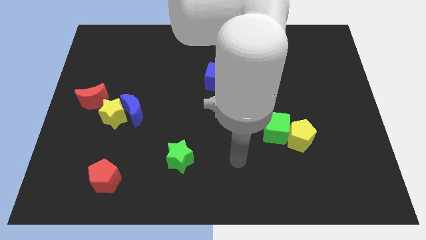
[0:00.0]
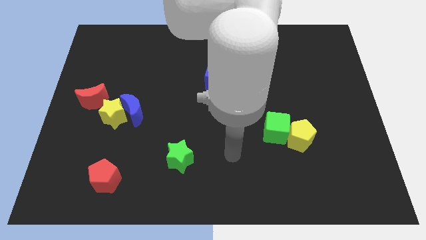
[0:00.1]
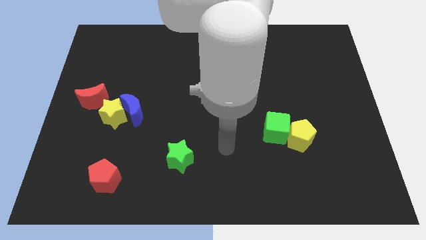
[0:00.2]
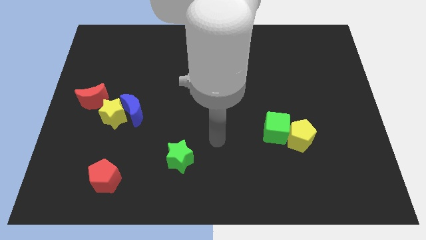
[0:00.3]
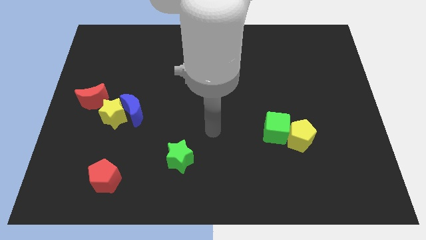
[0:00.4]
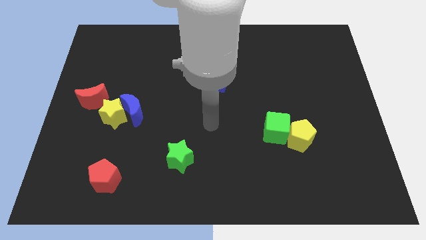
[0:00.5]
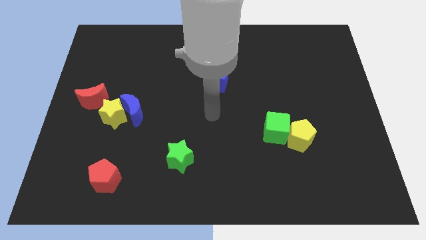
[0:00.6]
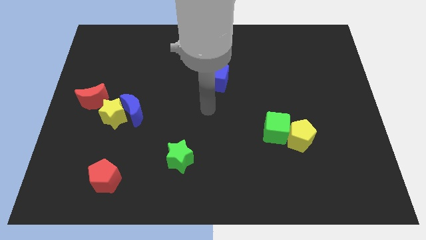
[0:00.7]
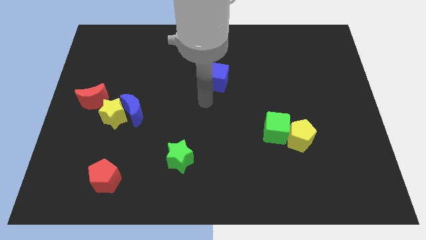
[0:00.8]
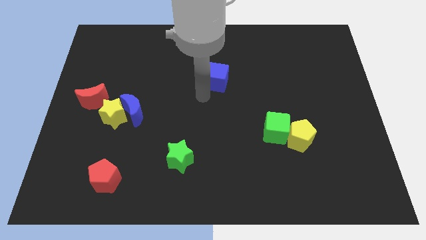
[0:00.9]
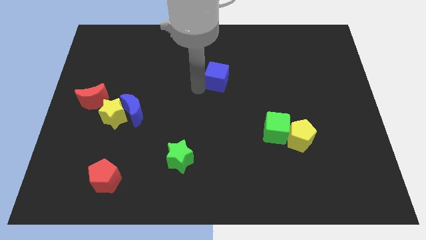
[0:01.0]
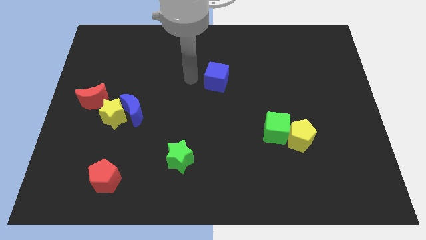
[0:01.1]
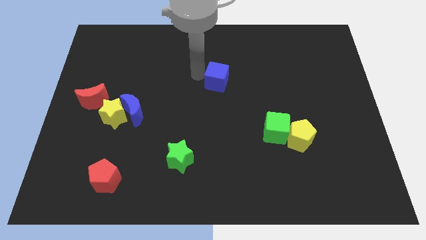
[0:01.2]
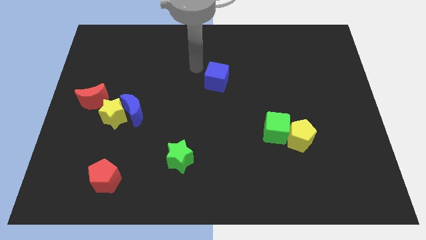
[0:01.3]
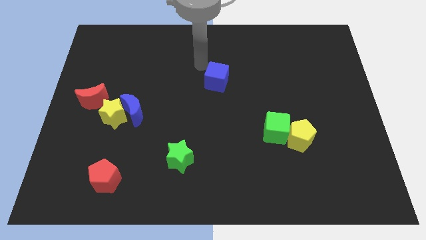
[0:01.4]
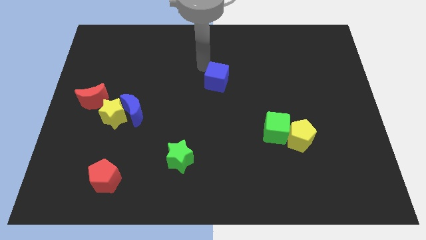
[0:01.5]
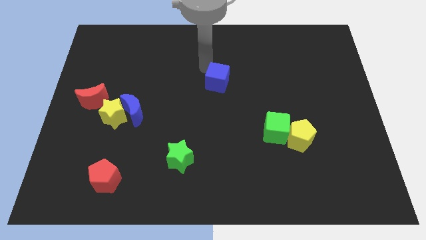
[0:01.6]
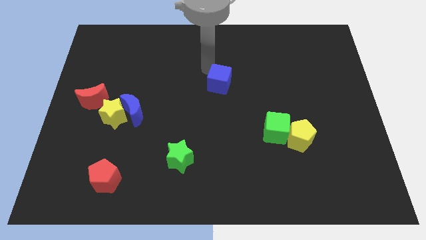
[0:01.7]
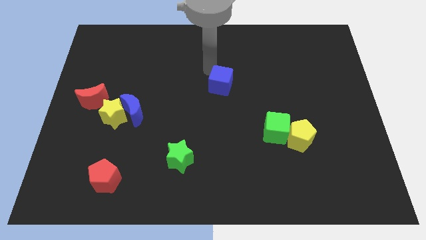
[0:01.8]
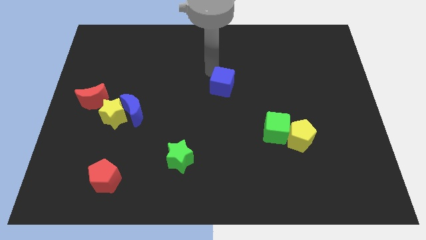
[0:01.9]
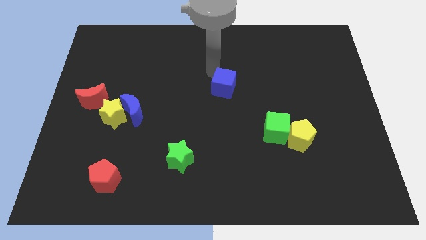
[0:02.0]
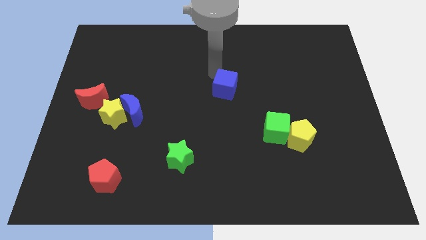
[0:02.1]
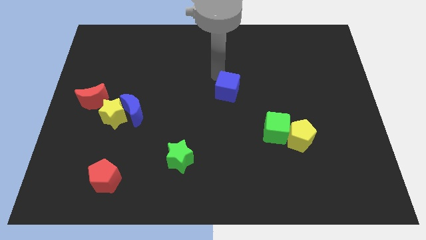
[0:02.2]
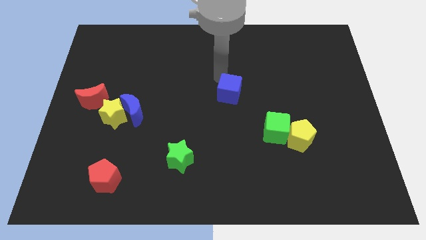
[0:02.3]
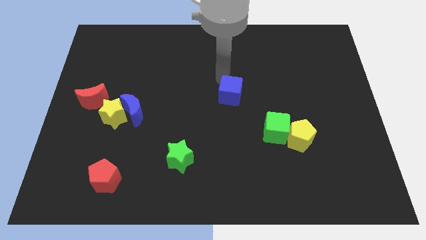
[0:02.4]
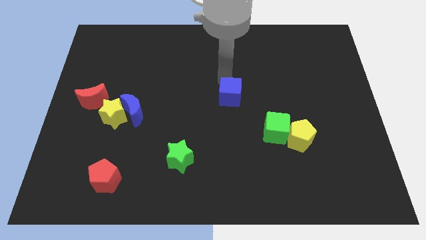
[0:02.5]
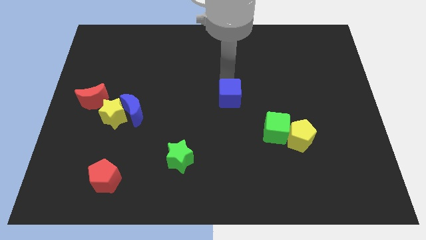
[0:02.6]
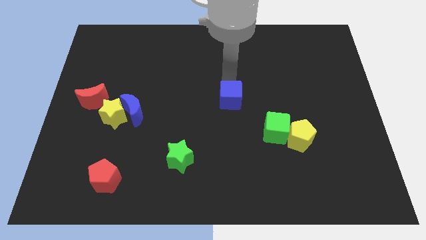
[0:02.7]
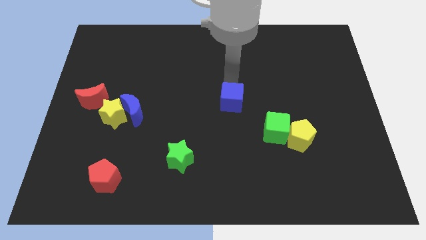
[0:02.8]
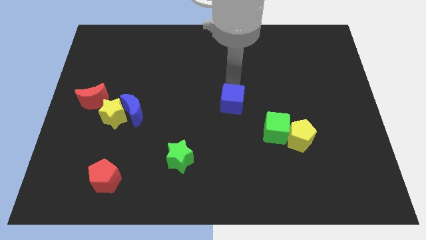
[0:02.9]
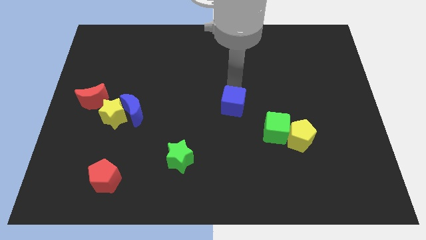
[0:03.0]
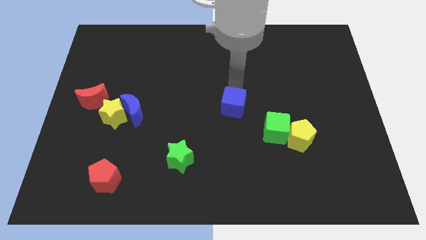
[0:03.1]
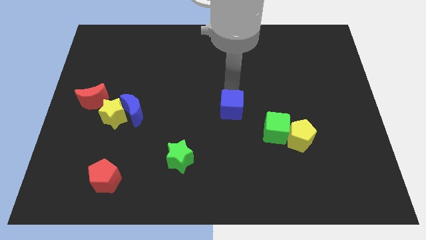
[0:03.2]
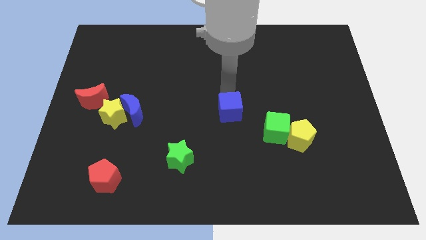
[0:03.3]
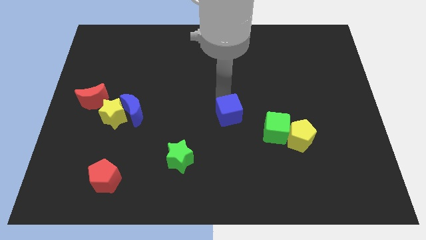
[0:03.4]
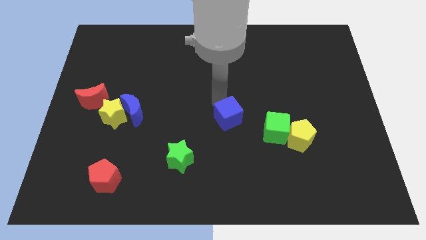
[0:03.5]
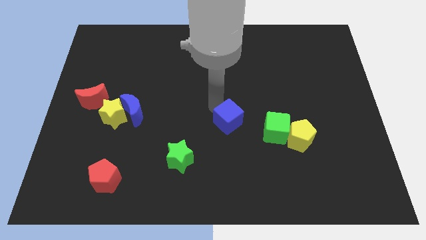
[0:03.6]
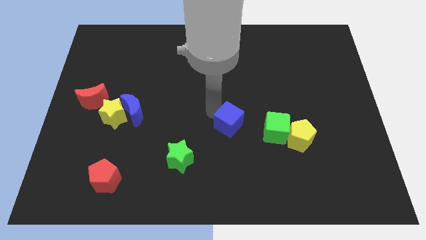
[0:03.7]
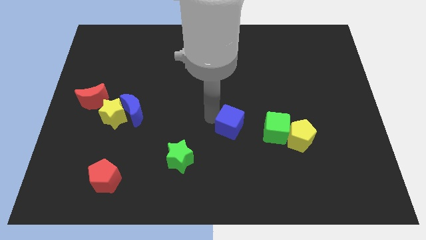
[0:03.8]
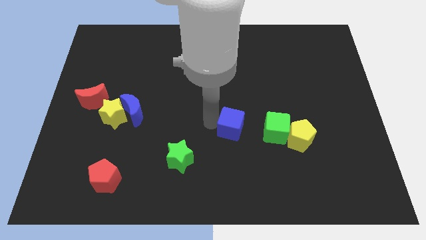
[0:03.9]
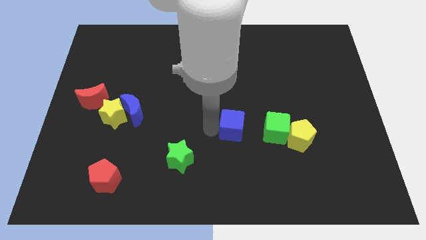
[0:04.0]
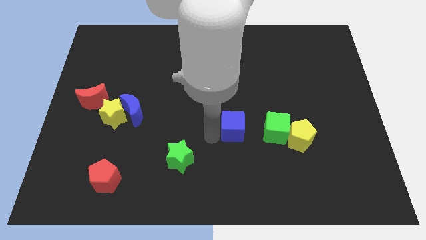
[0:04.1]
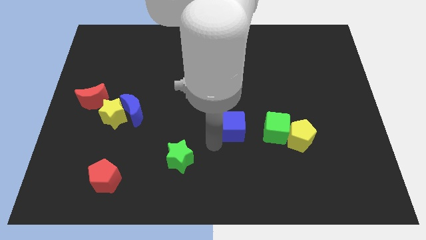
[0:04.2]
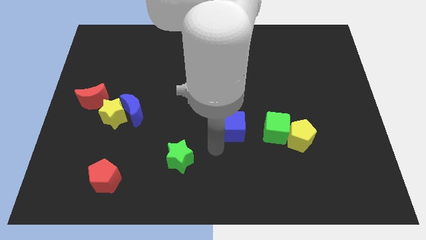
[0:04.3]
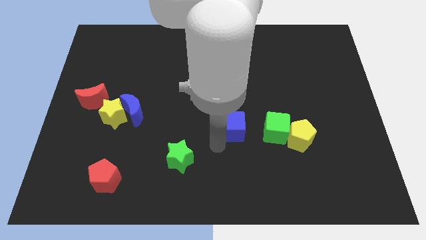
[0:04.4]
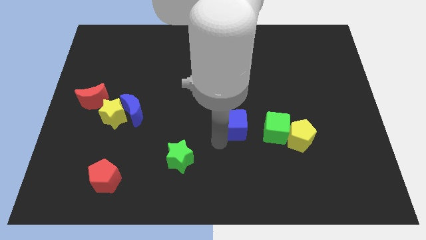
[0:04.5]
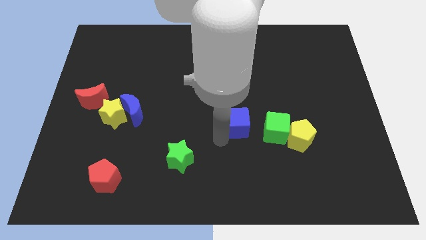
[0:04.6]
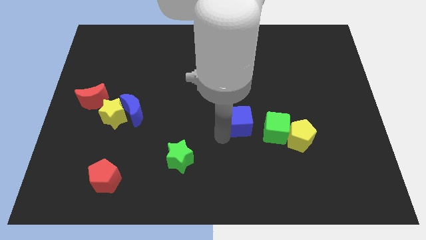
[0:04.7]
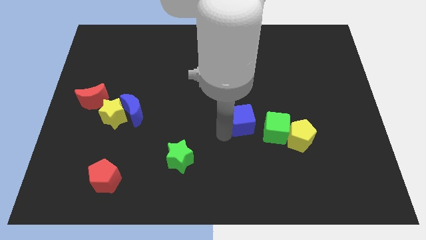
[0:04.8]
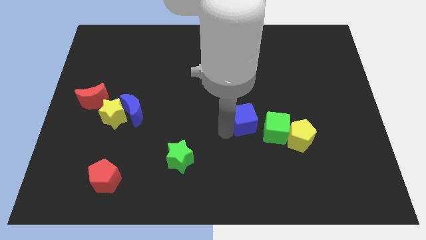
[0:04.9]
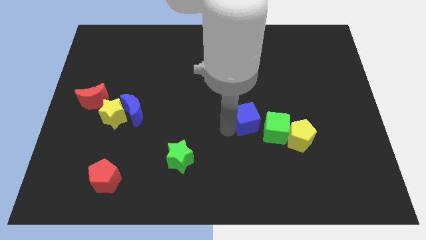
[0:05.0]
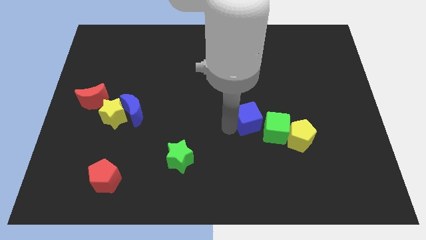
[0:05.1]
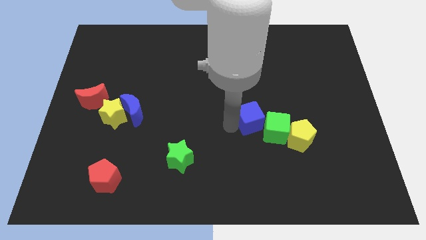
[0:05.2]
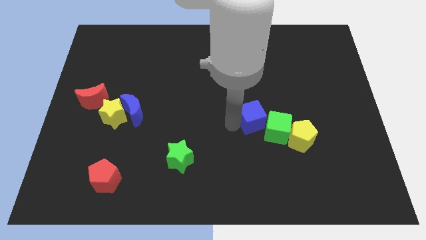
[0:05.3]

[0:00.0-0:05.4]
move the blue cube diagonally up and to the left of the yellow pentagon

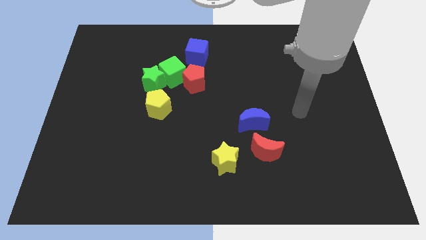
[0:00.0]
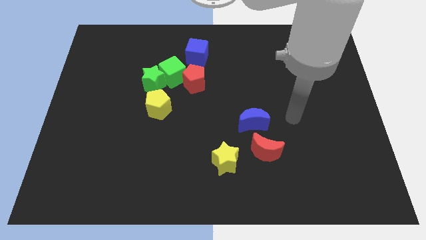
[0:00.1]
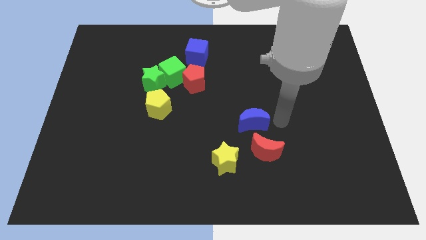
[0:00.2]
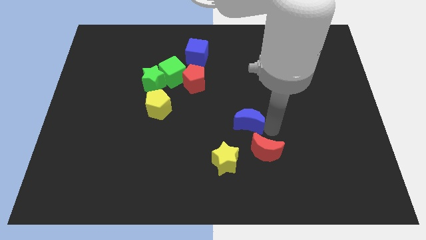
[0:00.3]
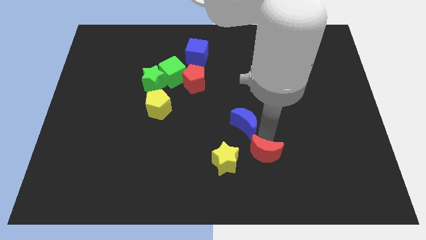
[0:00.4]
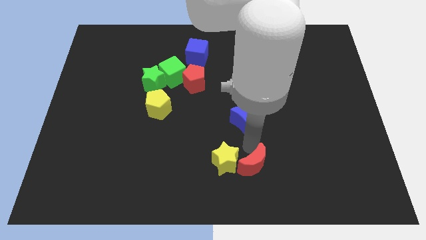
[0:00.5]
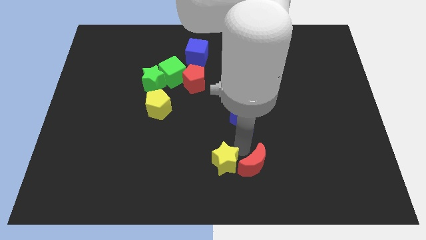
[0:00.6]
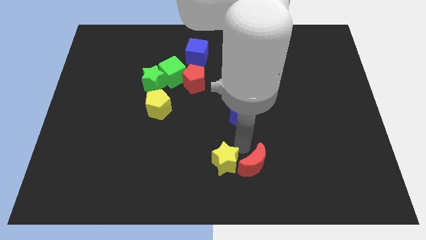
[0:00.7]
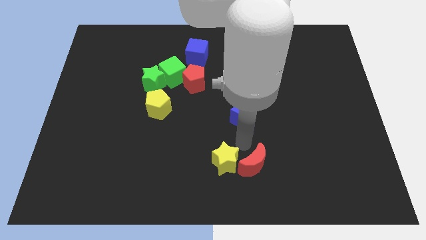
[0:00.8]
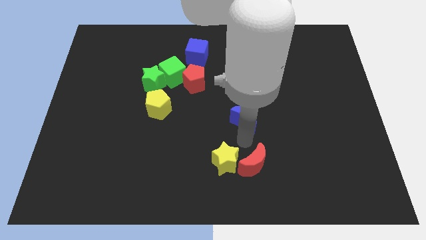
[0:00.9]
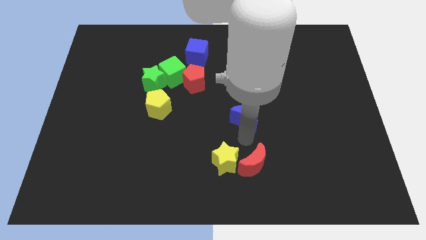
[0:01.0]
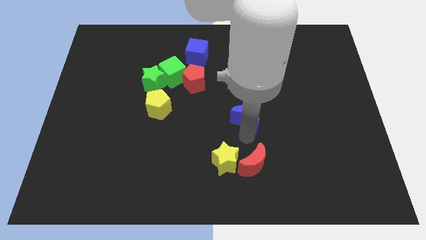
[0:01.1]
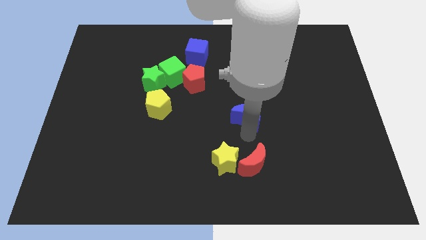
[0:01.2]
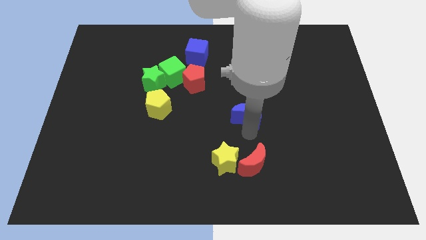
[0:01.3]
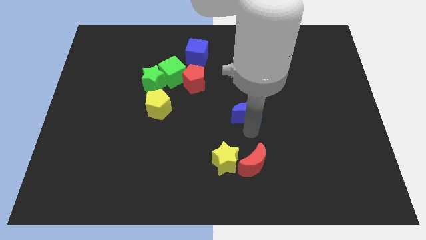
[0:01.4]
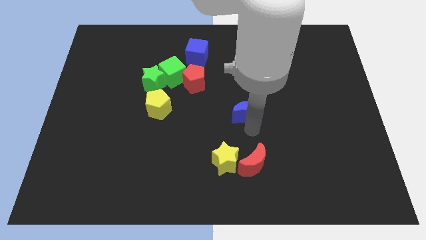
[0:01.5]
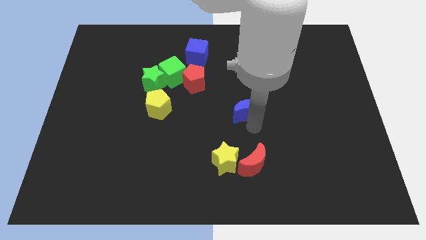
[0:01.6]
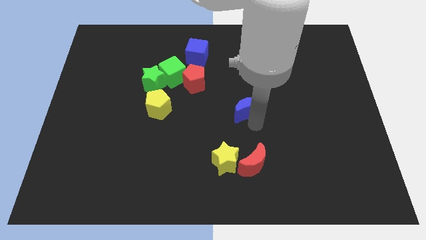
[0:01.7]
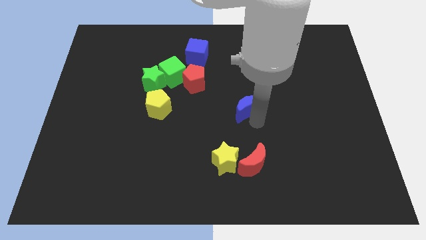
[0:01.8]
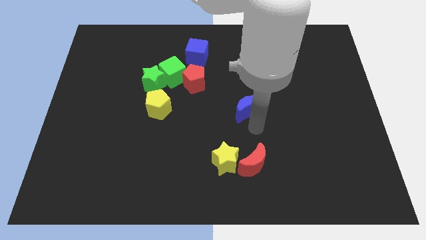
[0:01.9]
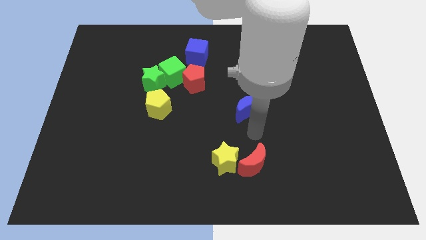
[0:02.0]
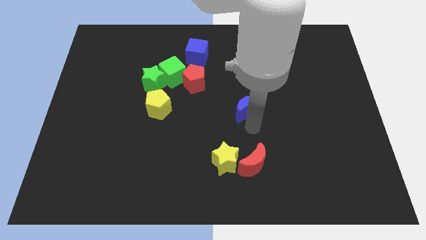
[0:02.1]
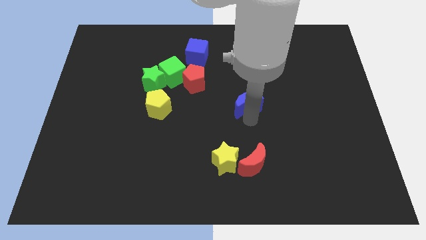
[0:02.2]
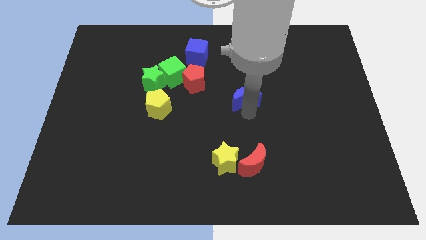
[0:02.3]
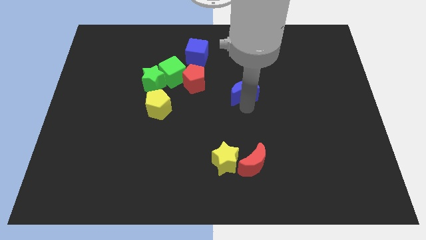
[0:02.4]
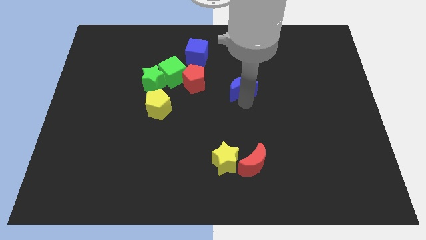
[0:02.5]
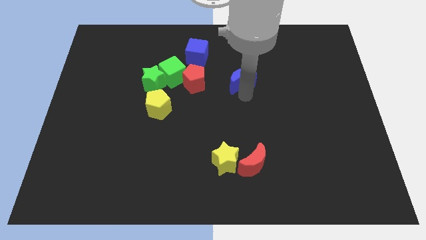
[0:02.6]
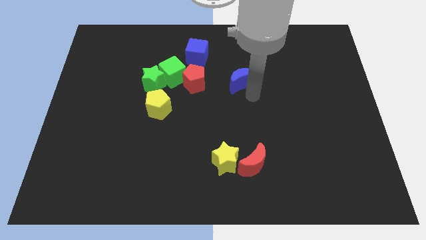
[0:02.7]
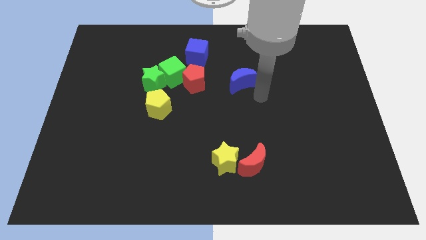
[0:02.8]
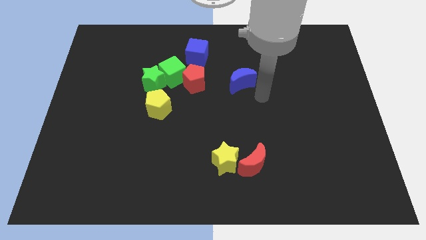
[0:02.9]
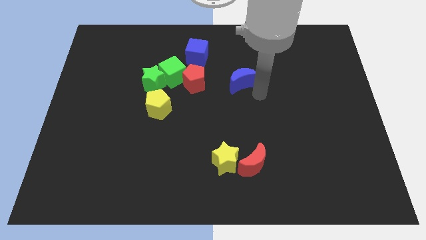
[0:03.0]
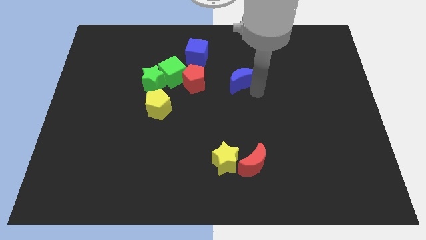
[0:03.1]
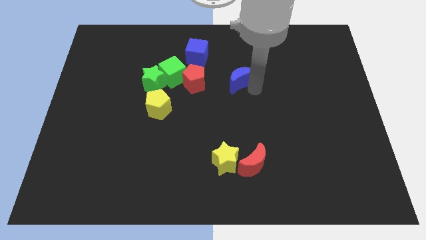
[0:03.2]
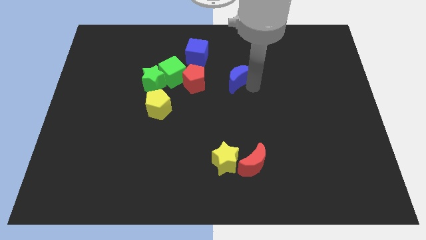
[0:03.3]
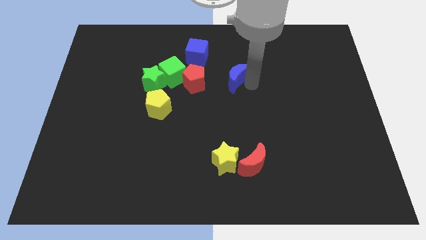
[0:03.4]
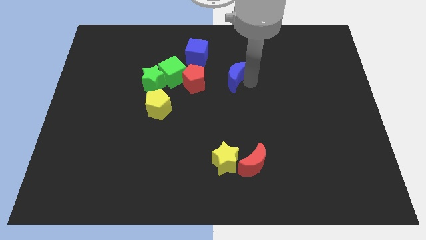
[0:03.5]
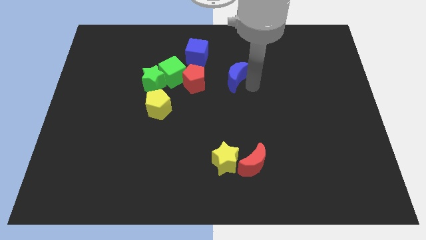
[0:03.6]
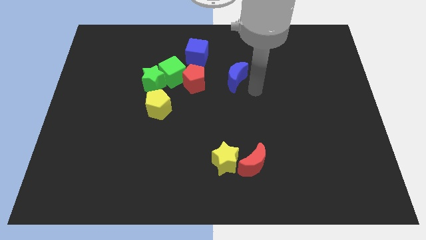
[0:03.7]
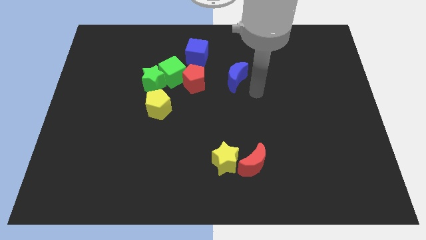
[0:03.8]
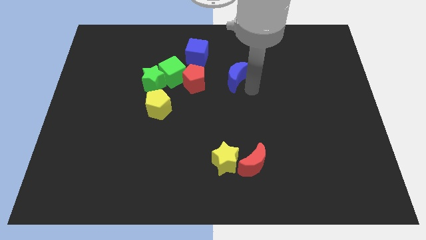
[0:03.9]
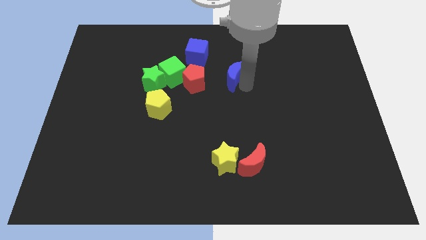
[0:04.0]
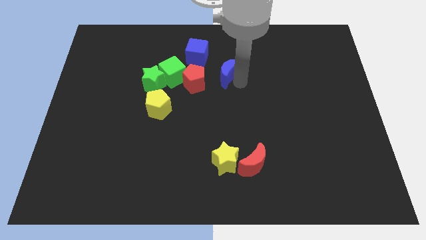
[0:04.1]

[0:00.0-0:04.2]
move the blue moon to the top right side of the red pentagon
